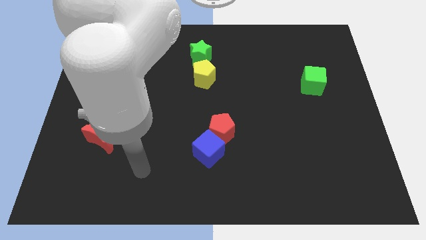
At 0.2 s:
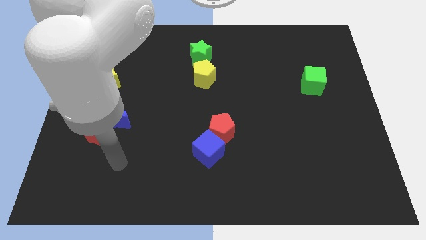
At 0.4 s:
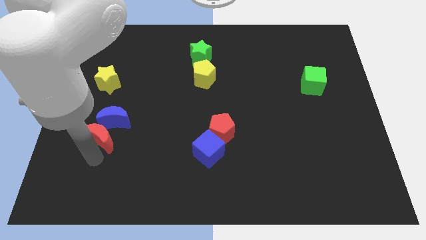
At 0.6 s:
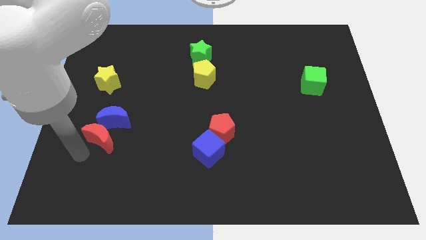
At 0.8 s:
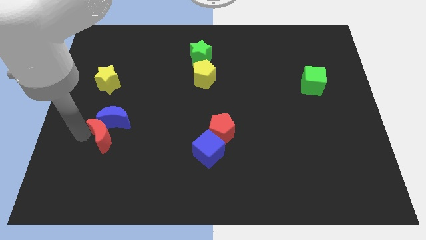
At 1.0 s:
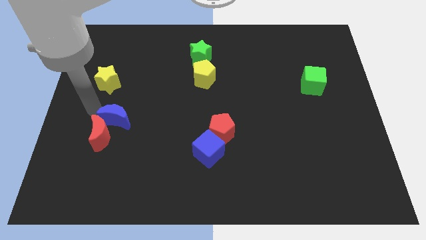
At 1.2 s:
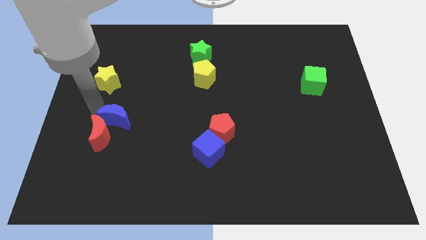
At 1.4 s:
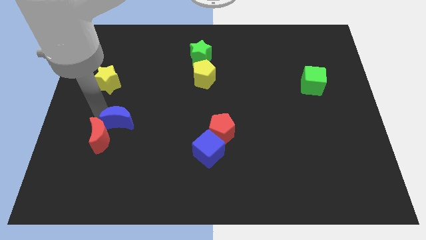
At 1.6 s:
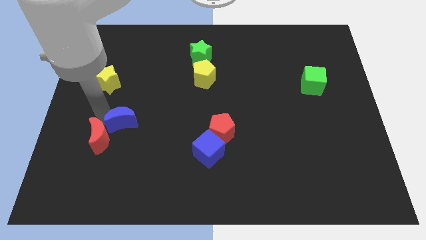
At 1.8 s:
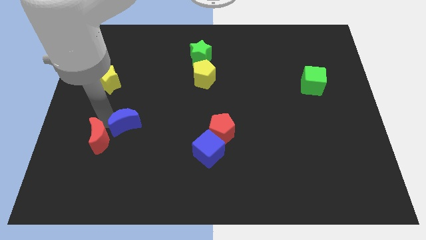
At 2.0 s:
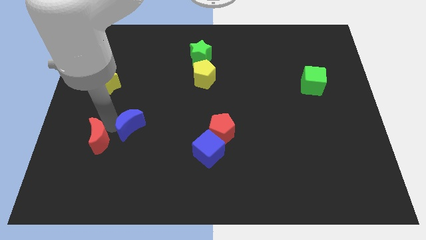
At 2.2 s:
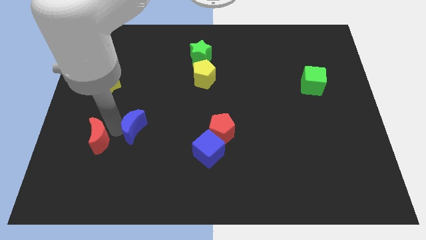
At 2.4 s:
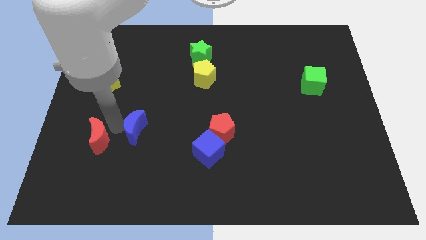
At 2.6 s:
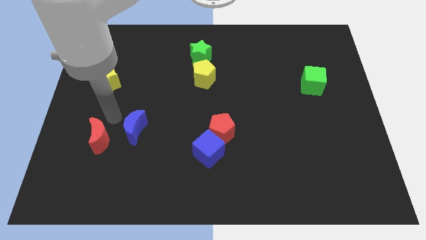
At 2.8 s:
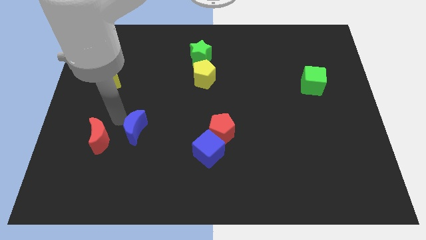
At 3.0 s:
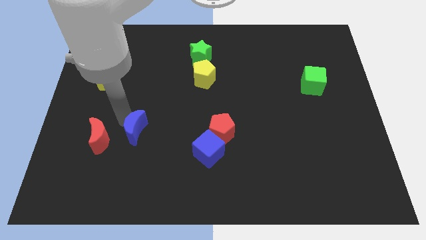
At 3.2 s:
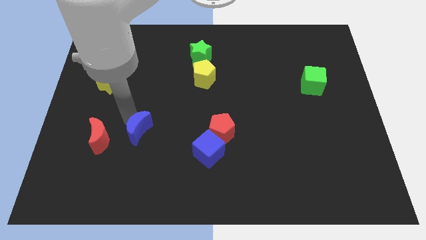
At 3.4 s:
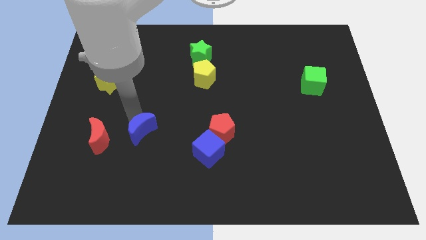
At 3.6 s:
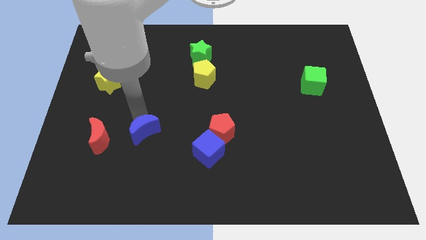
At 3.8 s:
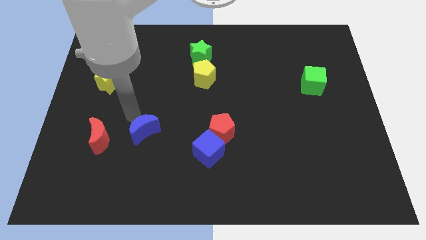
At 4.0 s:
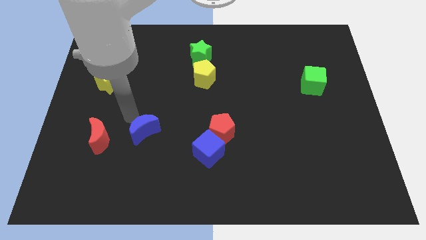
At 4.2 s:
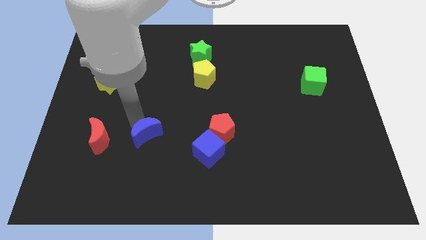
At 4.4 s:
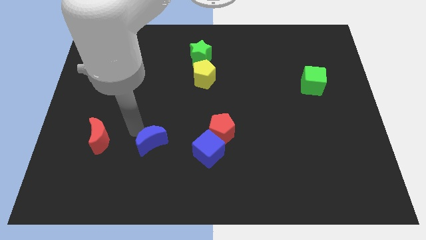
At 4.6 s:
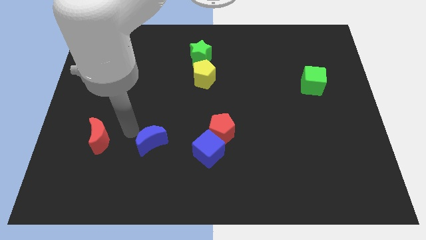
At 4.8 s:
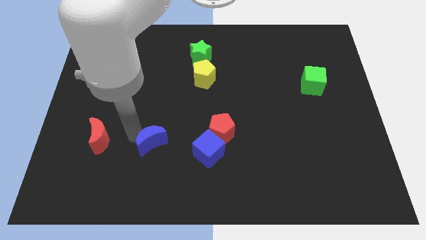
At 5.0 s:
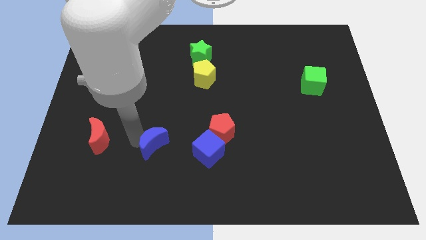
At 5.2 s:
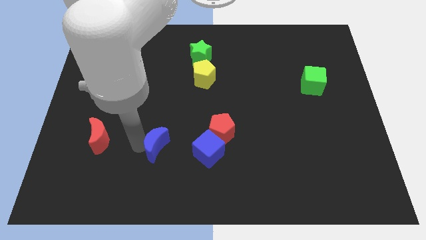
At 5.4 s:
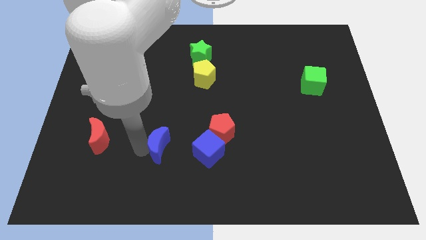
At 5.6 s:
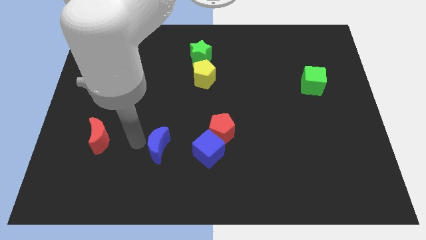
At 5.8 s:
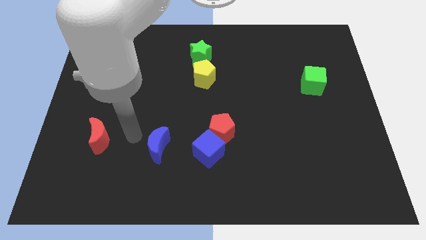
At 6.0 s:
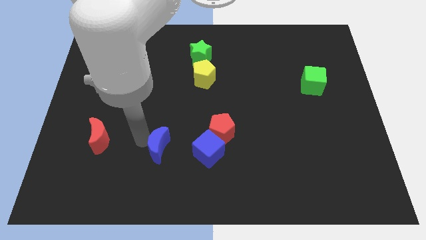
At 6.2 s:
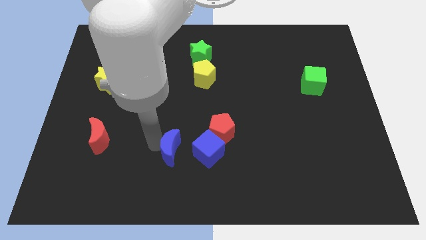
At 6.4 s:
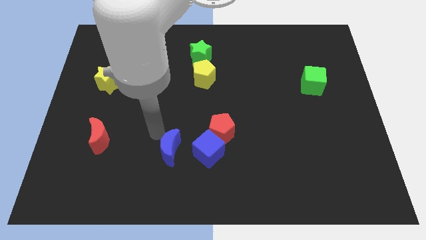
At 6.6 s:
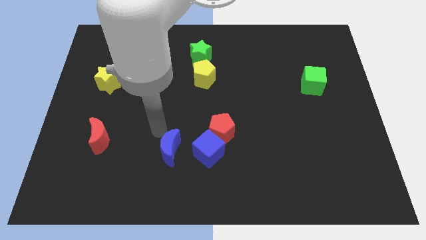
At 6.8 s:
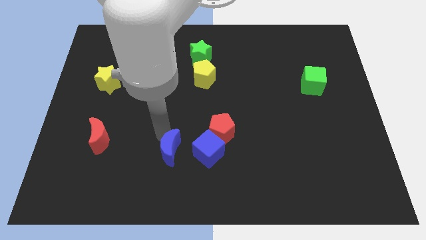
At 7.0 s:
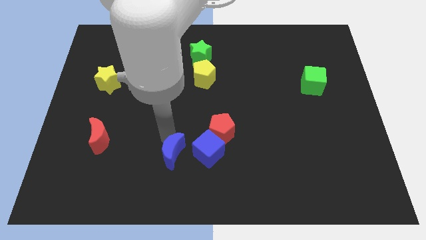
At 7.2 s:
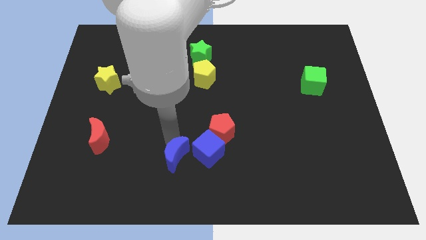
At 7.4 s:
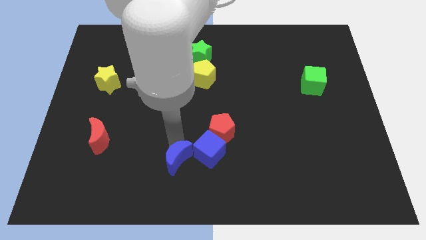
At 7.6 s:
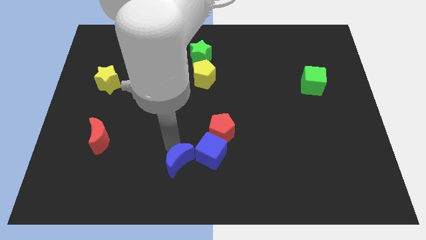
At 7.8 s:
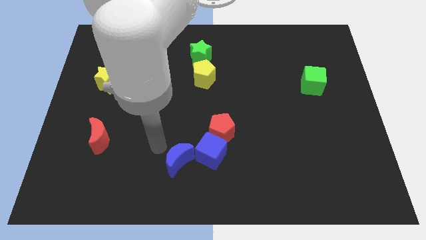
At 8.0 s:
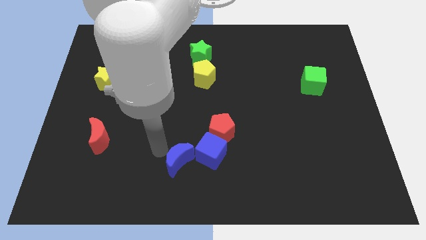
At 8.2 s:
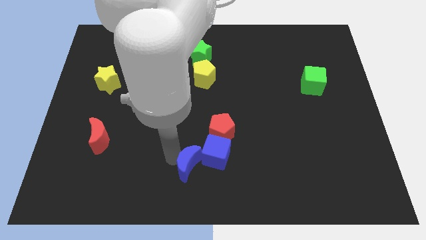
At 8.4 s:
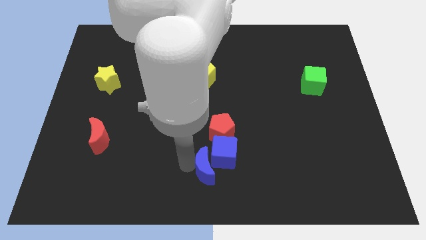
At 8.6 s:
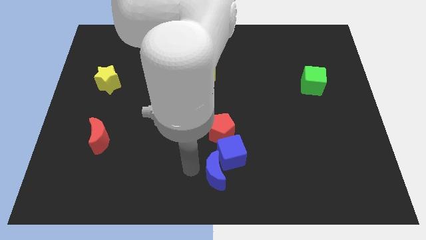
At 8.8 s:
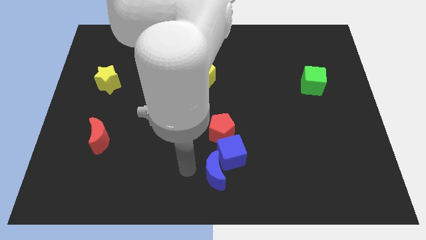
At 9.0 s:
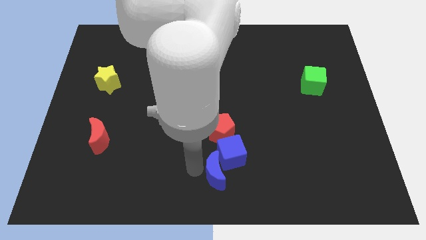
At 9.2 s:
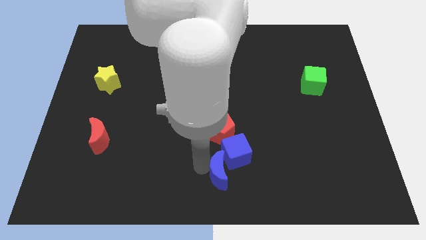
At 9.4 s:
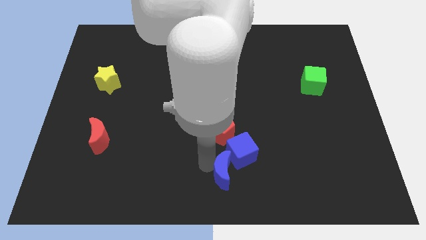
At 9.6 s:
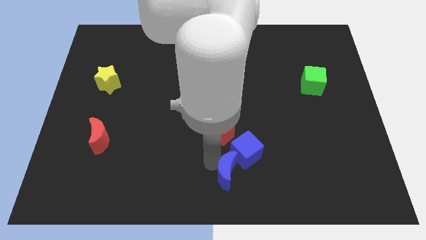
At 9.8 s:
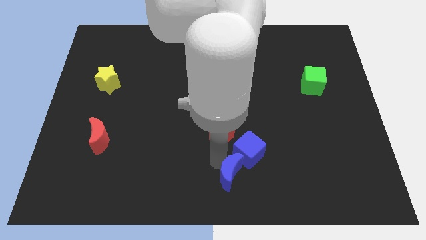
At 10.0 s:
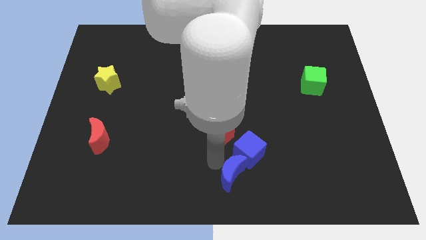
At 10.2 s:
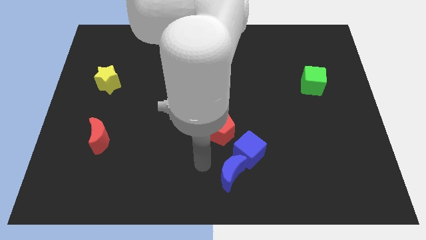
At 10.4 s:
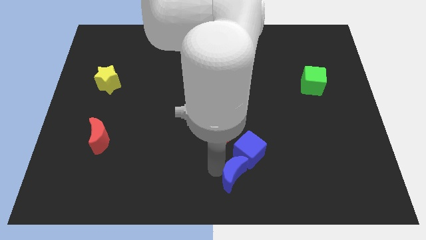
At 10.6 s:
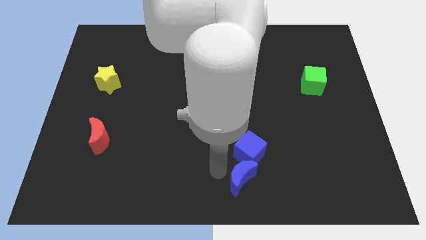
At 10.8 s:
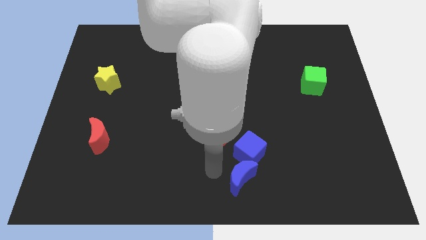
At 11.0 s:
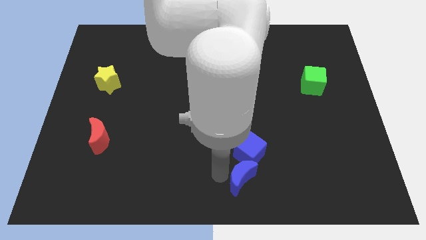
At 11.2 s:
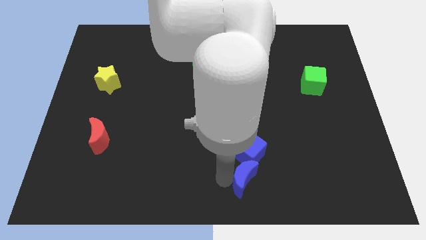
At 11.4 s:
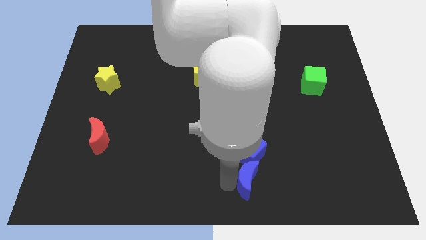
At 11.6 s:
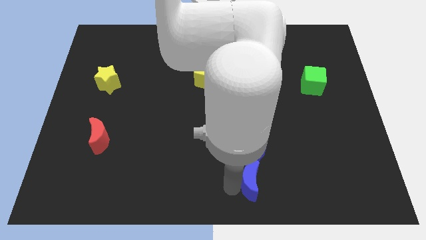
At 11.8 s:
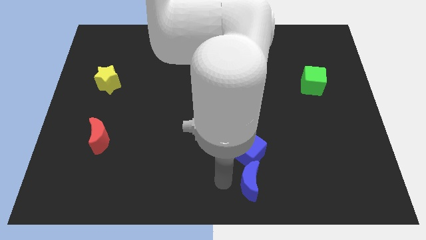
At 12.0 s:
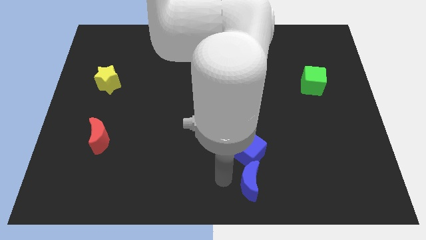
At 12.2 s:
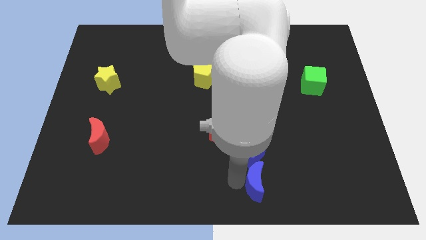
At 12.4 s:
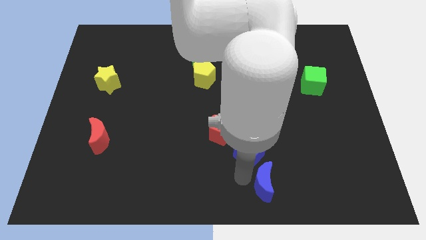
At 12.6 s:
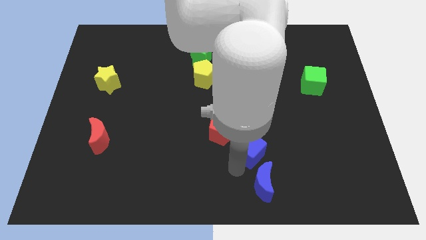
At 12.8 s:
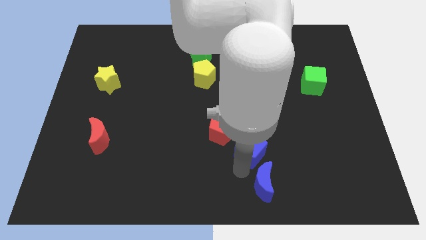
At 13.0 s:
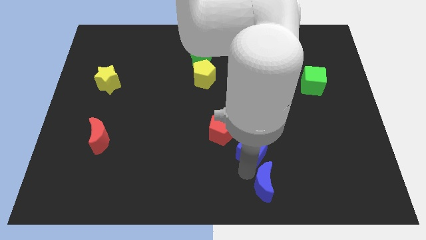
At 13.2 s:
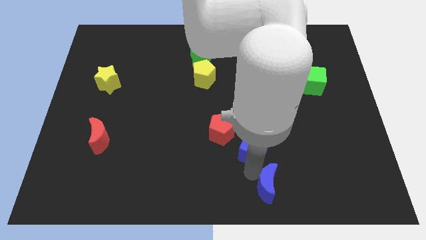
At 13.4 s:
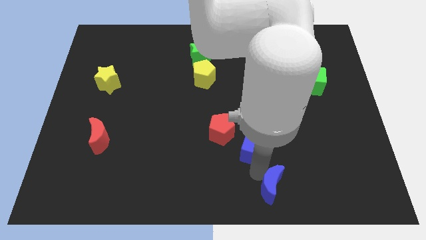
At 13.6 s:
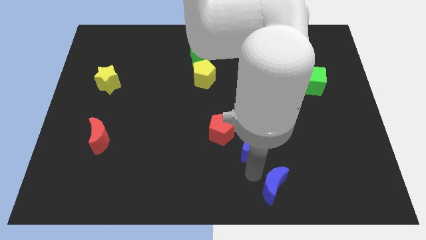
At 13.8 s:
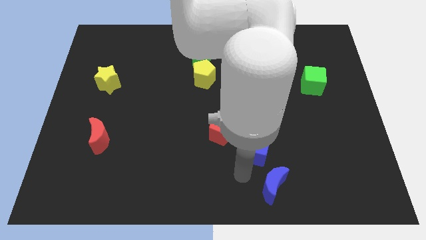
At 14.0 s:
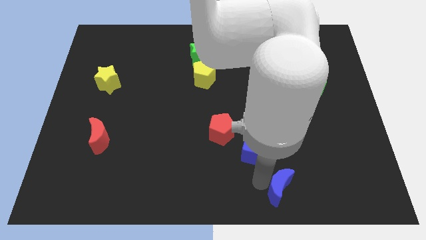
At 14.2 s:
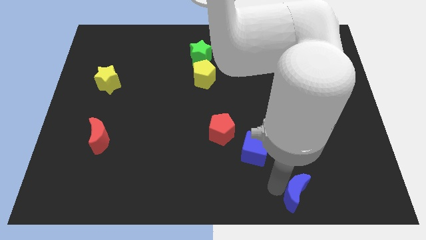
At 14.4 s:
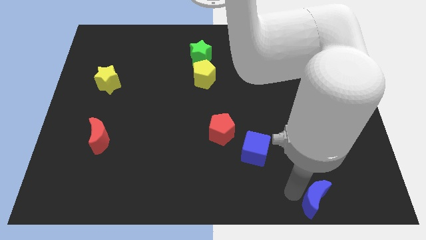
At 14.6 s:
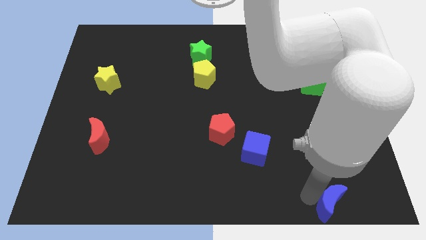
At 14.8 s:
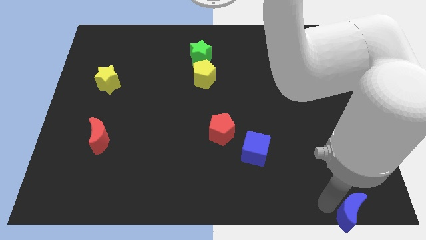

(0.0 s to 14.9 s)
push the blue moon to the bottom right
